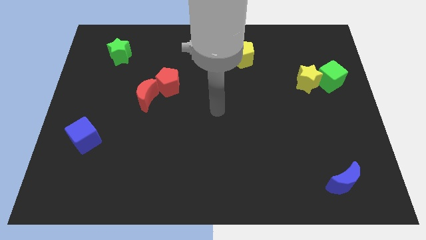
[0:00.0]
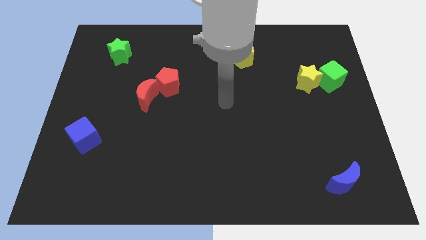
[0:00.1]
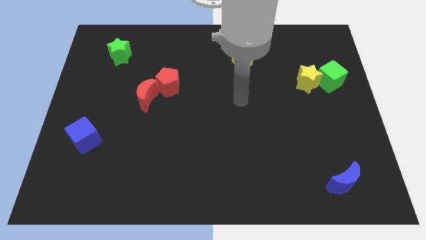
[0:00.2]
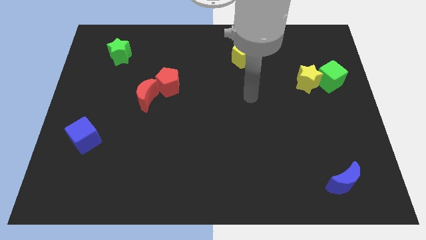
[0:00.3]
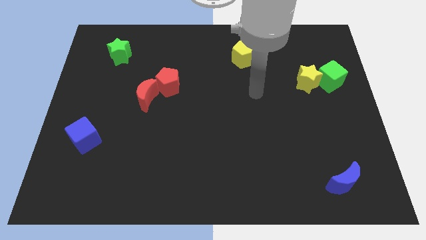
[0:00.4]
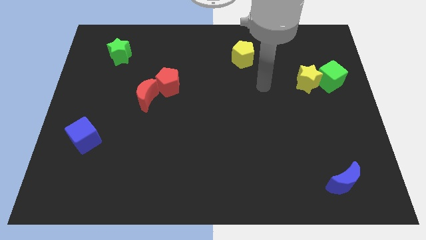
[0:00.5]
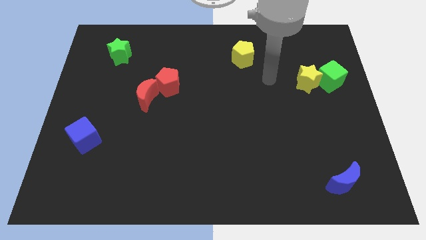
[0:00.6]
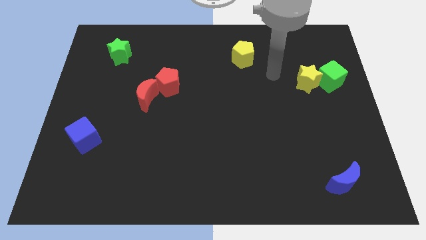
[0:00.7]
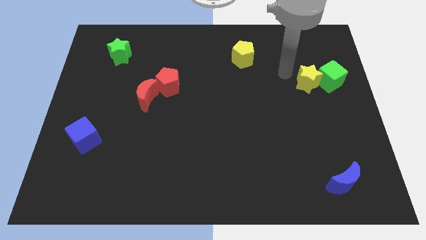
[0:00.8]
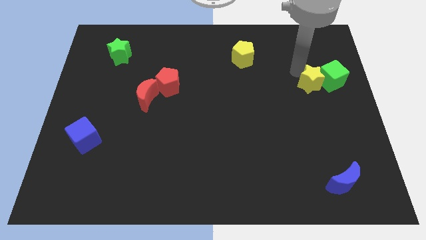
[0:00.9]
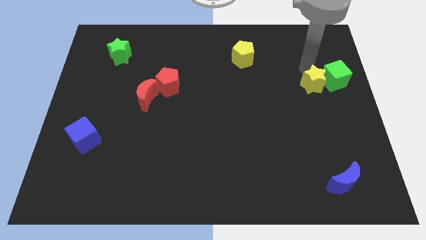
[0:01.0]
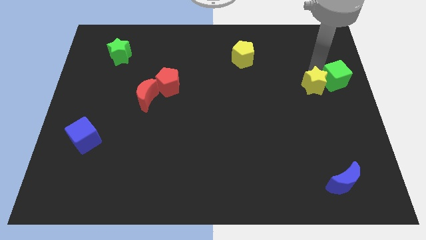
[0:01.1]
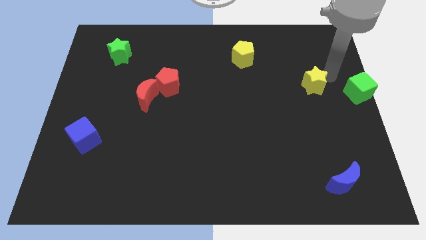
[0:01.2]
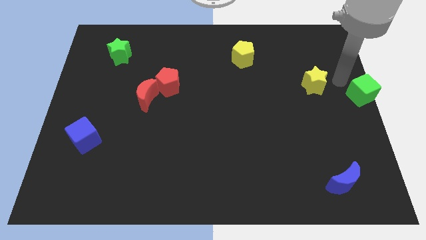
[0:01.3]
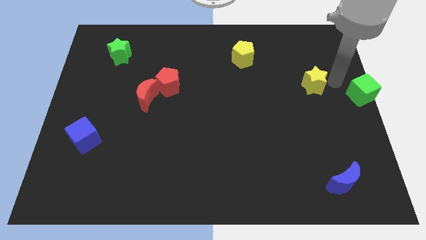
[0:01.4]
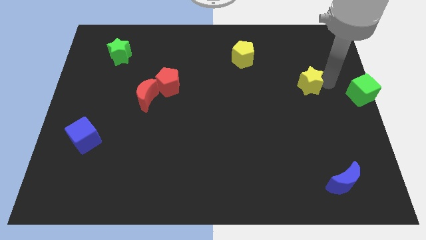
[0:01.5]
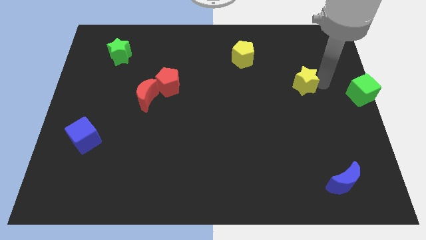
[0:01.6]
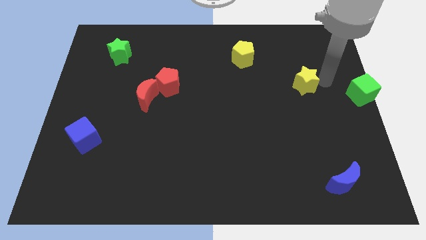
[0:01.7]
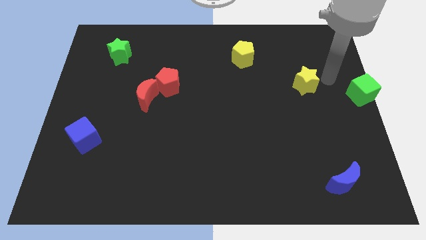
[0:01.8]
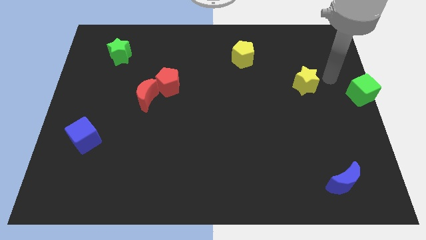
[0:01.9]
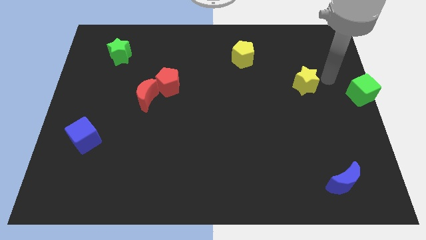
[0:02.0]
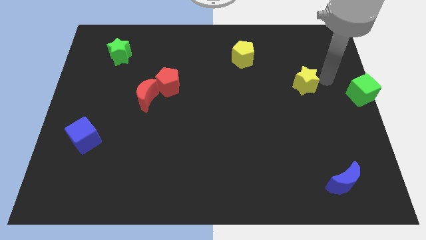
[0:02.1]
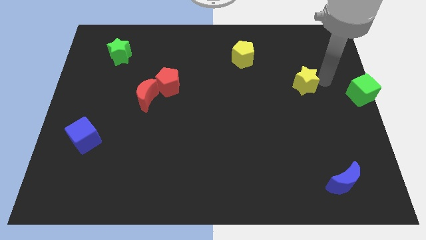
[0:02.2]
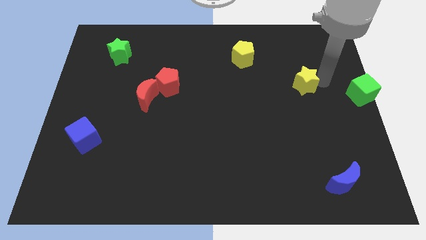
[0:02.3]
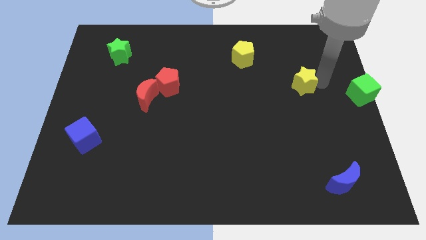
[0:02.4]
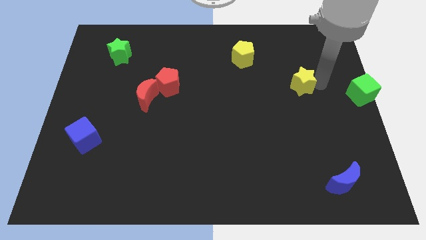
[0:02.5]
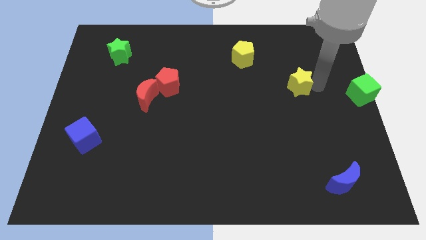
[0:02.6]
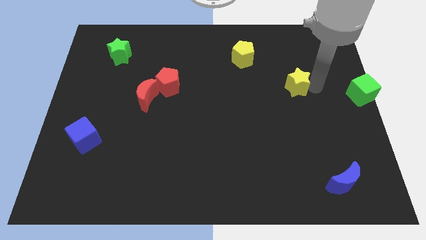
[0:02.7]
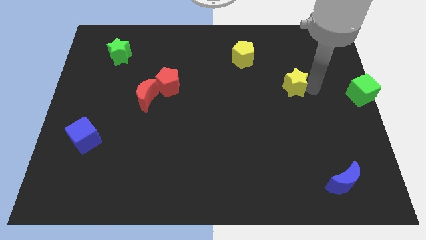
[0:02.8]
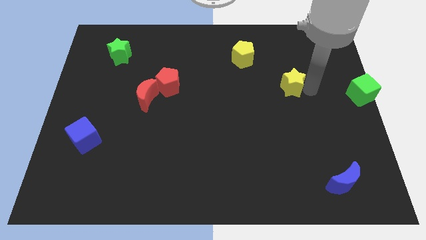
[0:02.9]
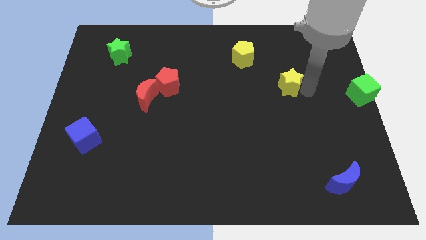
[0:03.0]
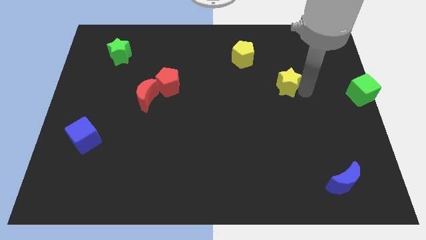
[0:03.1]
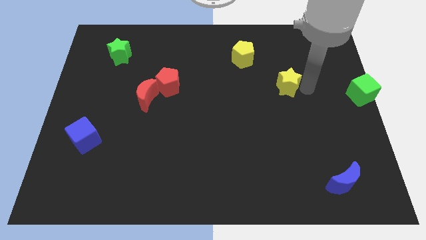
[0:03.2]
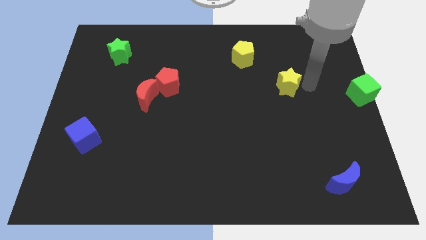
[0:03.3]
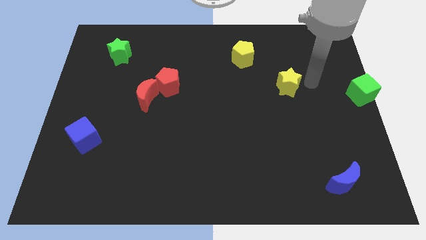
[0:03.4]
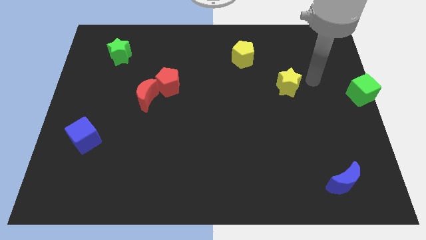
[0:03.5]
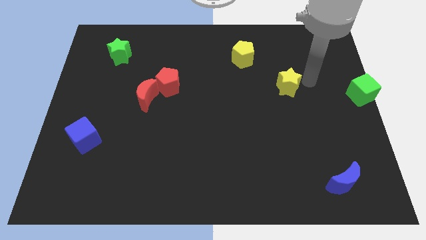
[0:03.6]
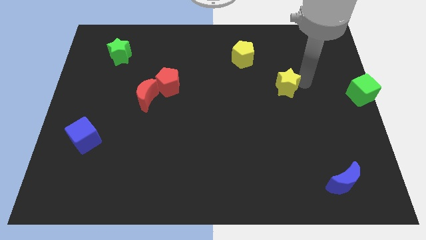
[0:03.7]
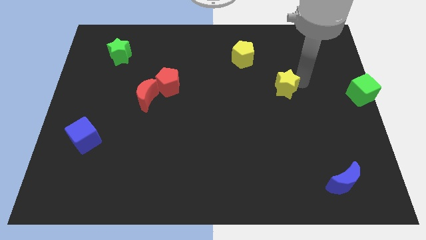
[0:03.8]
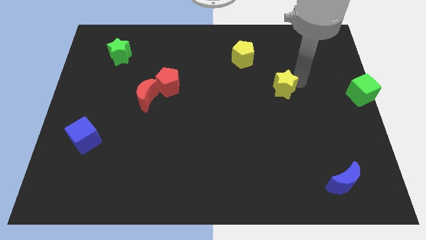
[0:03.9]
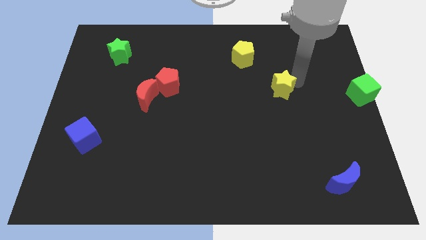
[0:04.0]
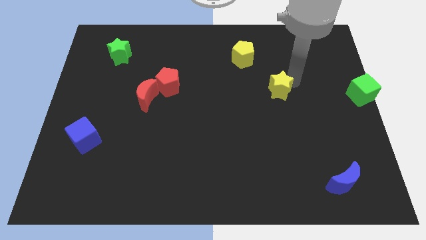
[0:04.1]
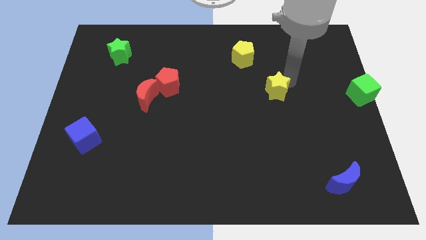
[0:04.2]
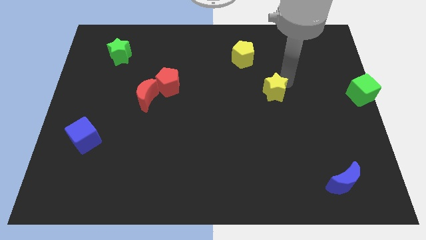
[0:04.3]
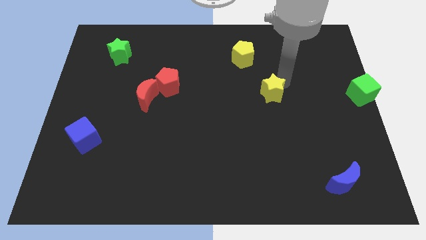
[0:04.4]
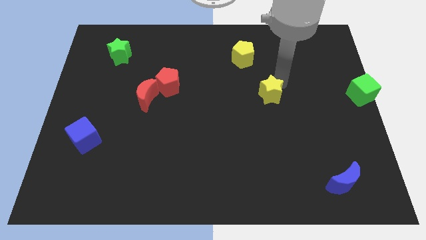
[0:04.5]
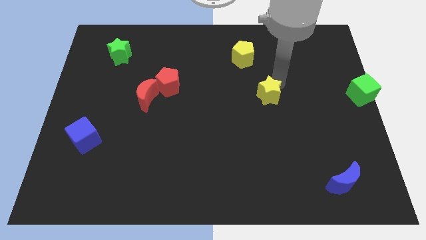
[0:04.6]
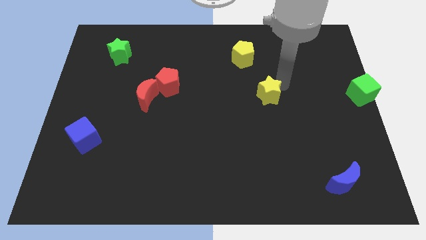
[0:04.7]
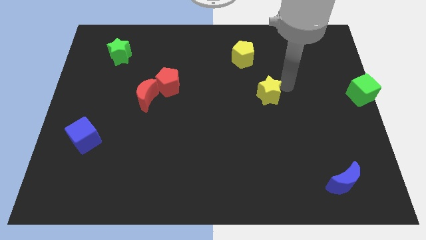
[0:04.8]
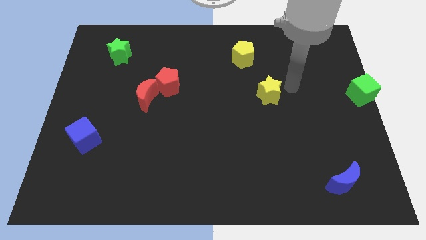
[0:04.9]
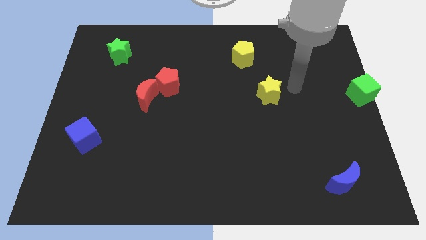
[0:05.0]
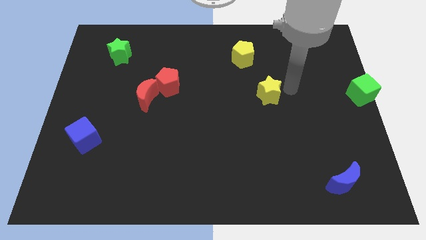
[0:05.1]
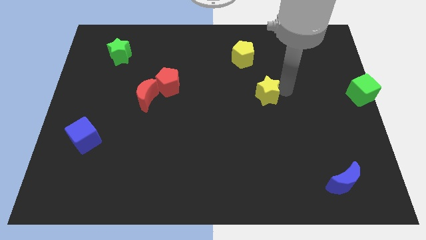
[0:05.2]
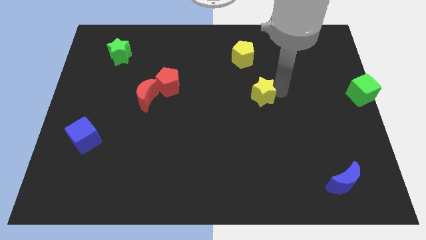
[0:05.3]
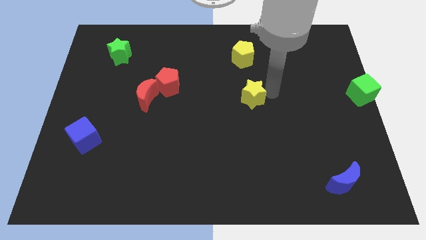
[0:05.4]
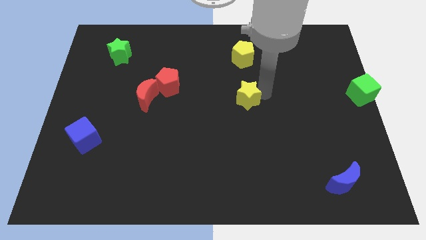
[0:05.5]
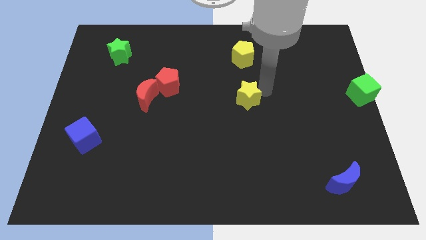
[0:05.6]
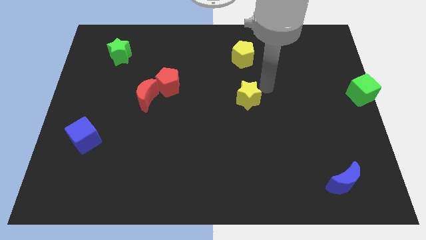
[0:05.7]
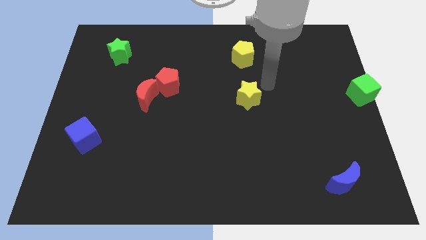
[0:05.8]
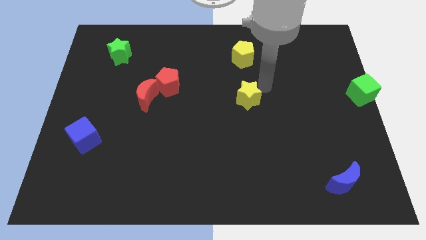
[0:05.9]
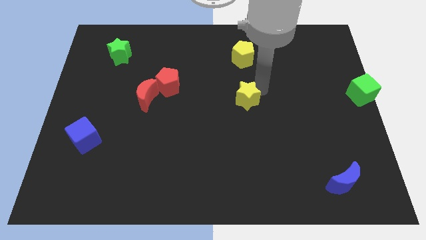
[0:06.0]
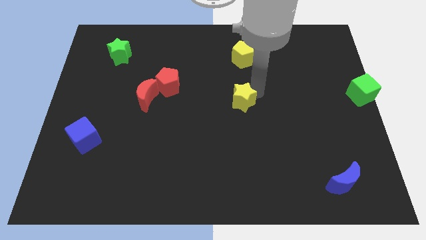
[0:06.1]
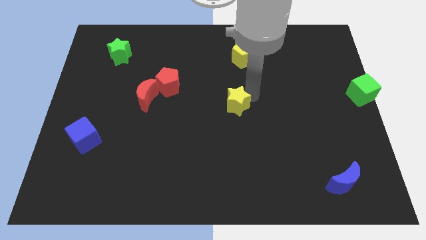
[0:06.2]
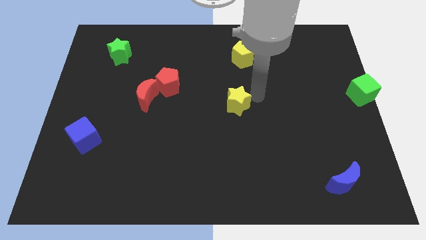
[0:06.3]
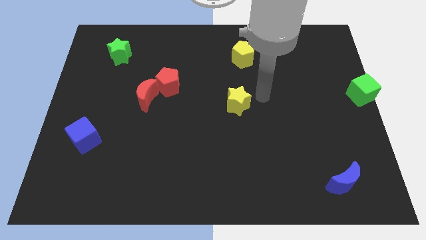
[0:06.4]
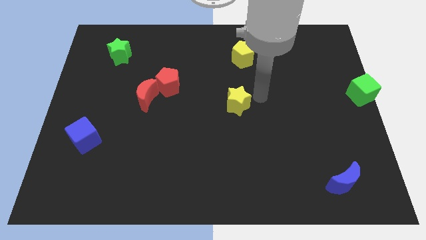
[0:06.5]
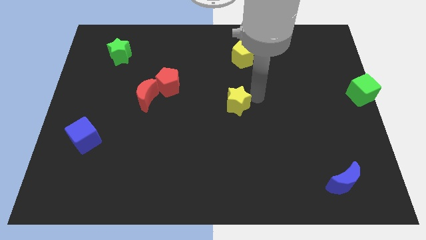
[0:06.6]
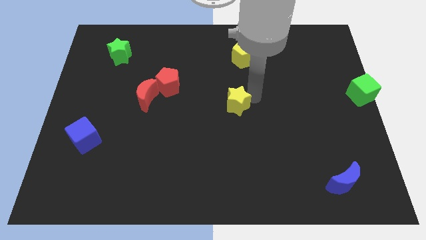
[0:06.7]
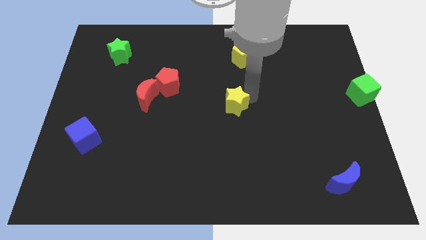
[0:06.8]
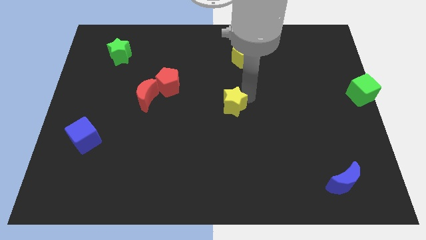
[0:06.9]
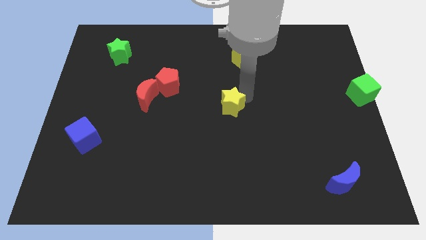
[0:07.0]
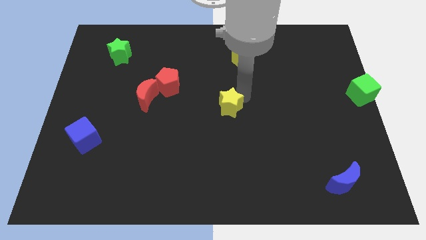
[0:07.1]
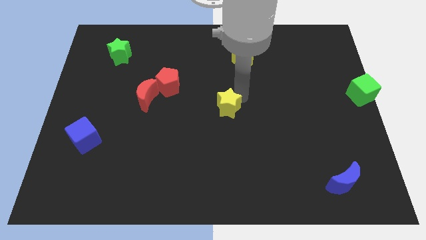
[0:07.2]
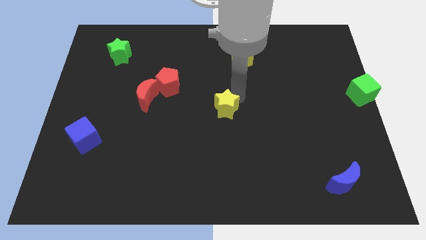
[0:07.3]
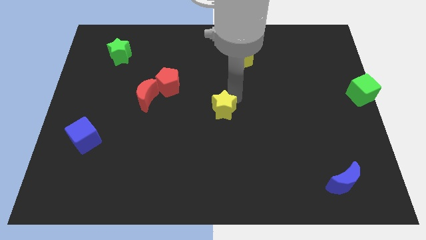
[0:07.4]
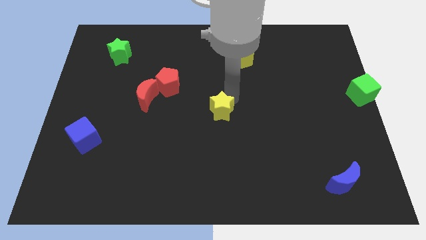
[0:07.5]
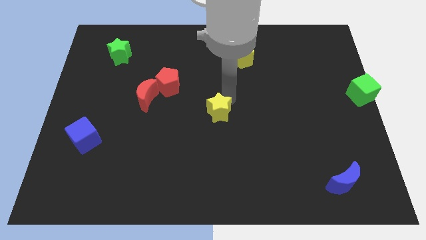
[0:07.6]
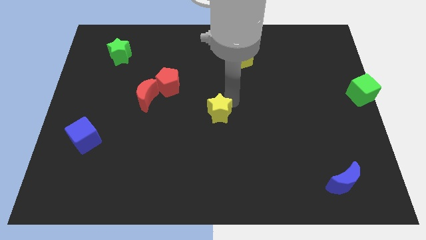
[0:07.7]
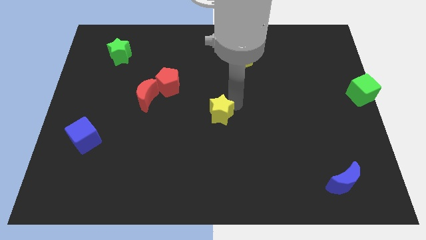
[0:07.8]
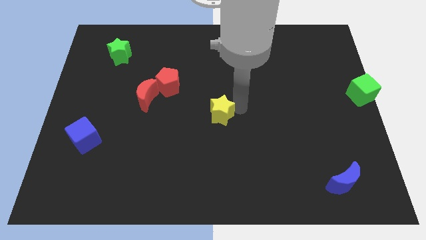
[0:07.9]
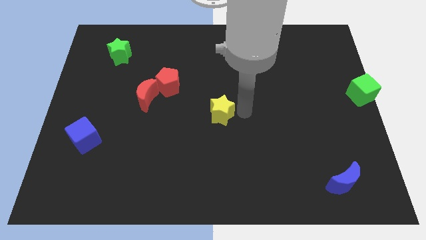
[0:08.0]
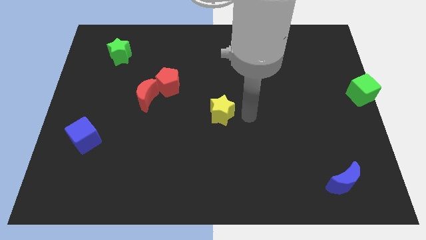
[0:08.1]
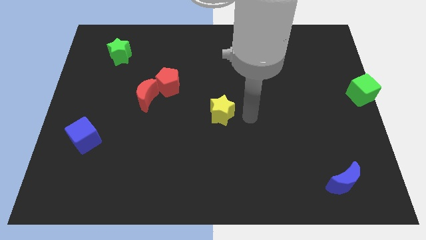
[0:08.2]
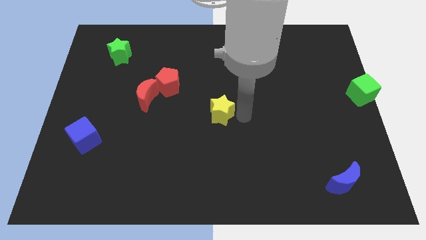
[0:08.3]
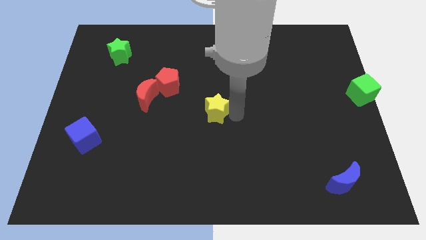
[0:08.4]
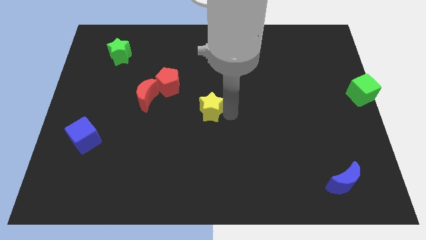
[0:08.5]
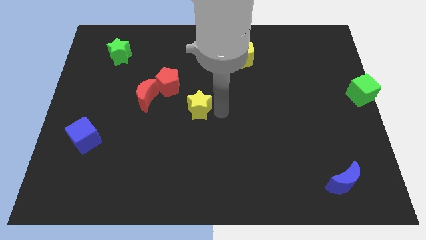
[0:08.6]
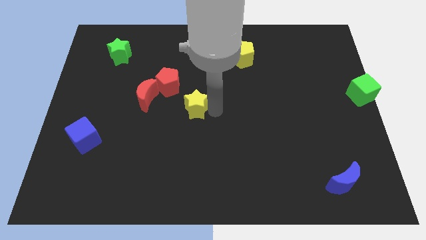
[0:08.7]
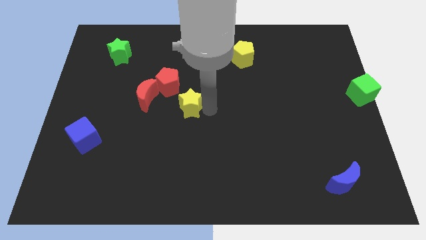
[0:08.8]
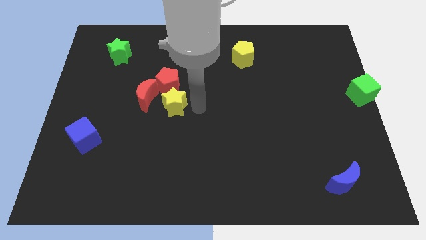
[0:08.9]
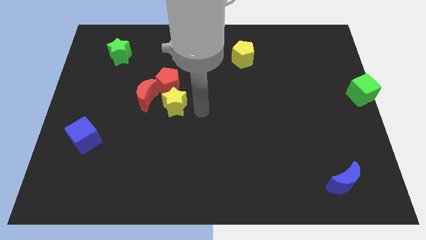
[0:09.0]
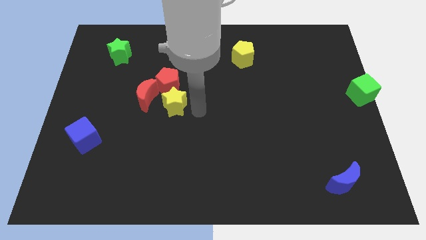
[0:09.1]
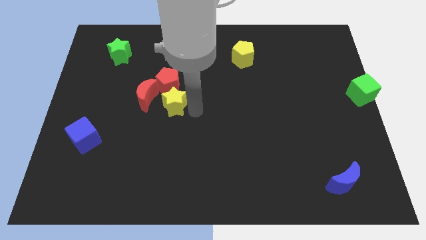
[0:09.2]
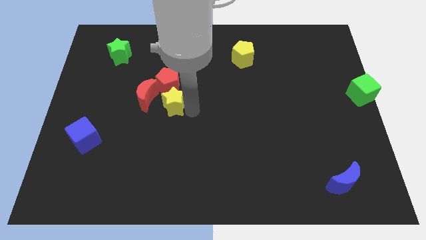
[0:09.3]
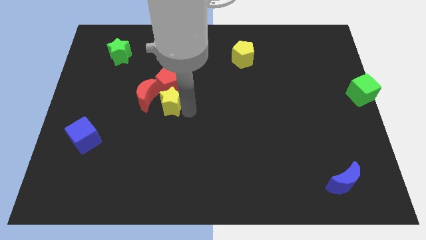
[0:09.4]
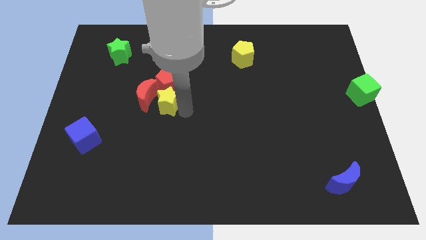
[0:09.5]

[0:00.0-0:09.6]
put the yellow star to the red moon
